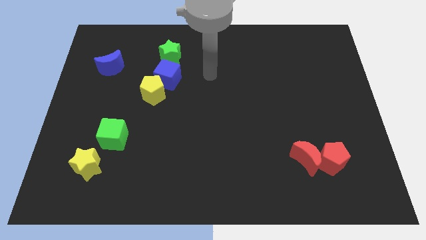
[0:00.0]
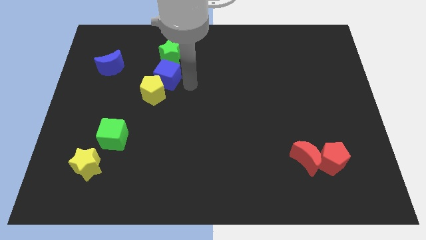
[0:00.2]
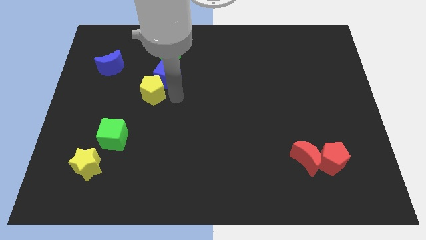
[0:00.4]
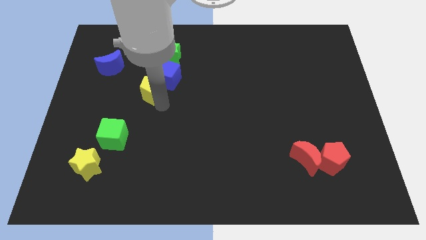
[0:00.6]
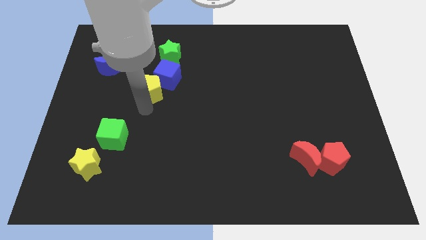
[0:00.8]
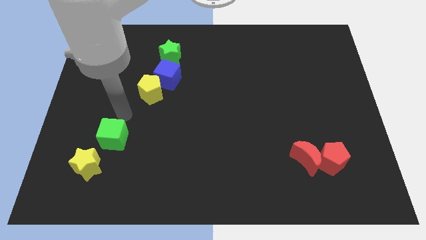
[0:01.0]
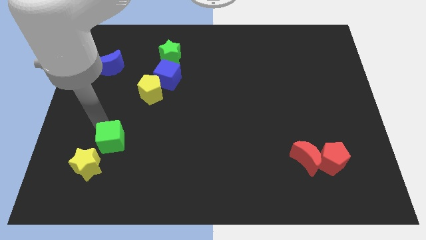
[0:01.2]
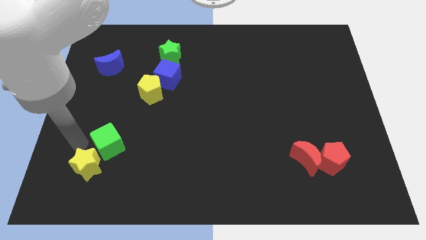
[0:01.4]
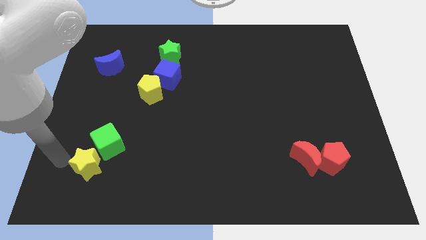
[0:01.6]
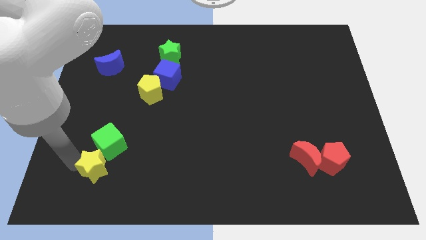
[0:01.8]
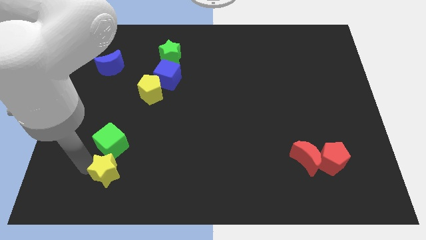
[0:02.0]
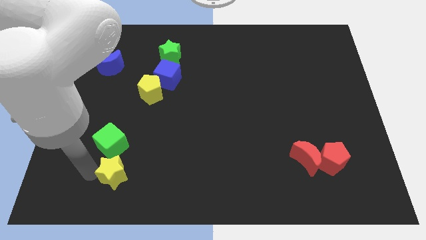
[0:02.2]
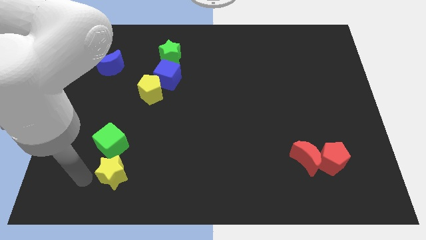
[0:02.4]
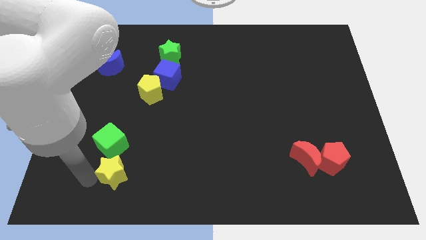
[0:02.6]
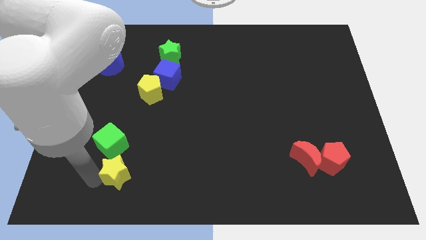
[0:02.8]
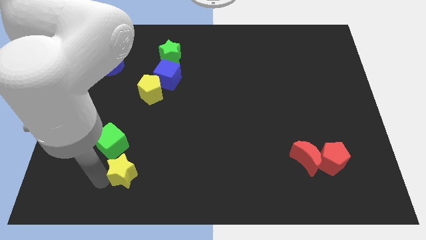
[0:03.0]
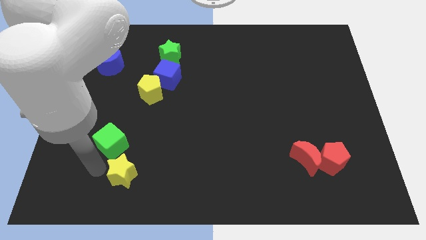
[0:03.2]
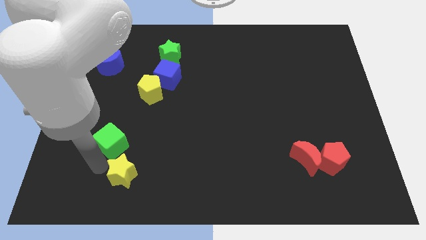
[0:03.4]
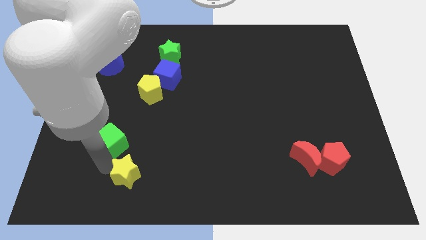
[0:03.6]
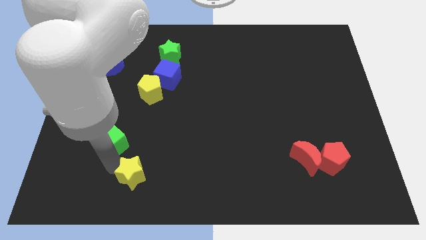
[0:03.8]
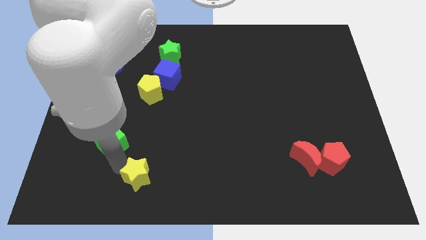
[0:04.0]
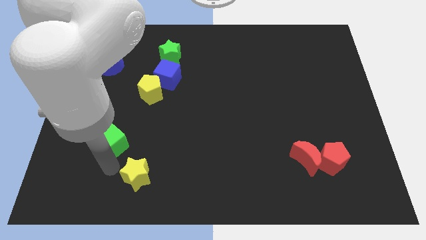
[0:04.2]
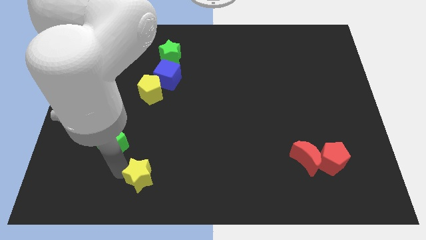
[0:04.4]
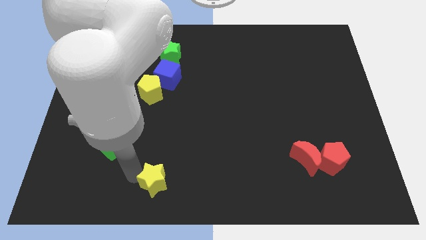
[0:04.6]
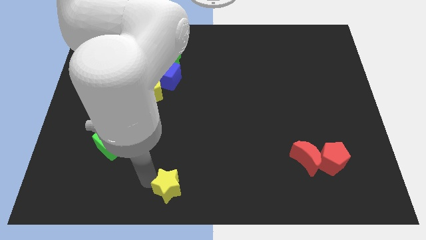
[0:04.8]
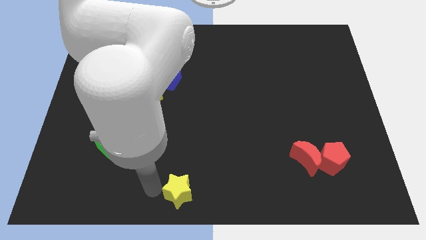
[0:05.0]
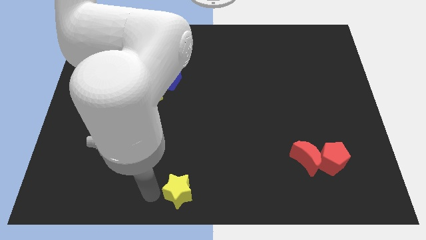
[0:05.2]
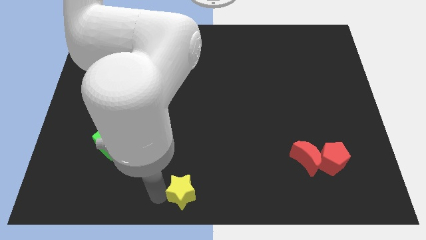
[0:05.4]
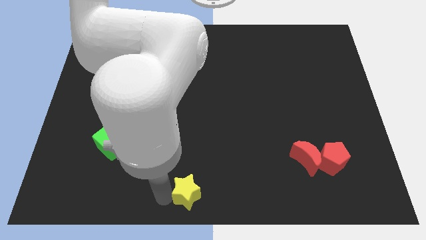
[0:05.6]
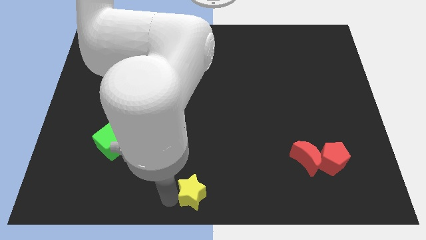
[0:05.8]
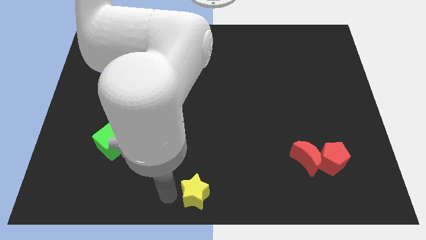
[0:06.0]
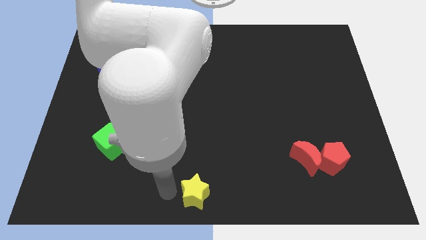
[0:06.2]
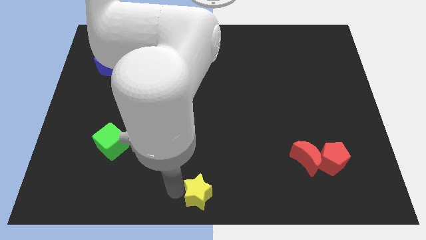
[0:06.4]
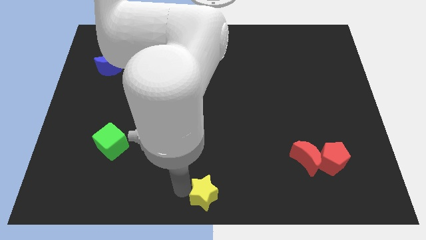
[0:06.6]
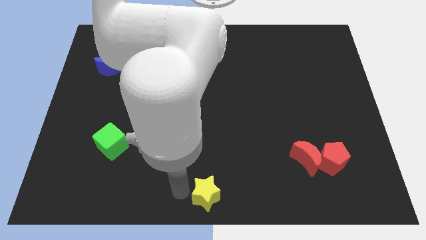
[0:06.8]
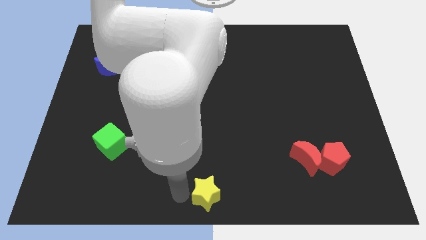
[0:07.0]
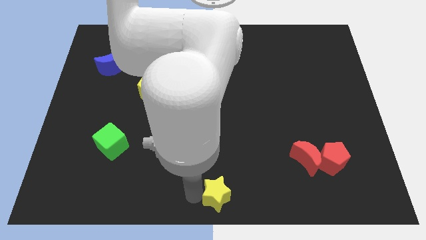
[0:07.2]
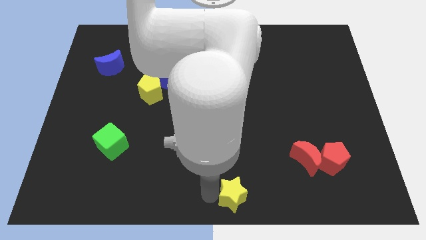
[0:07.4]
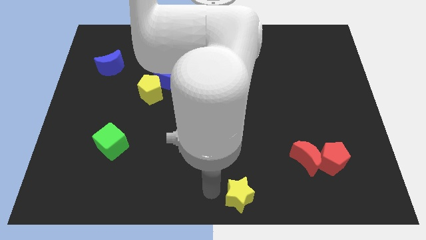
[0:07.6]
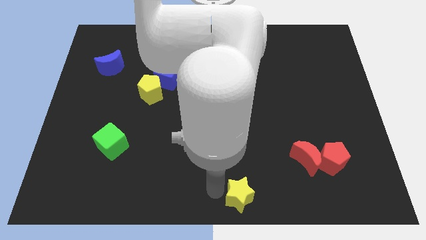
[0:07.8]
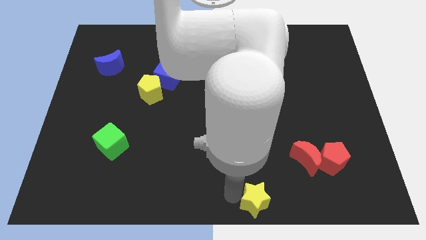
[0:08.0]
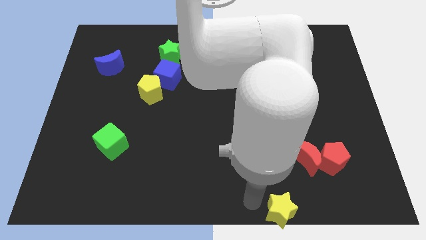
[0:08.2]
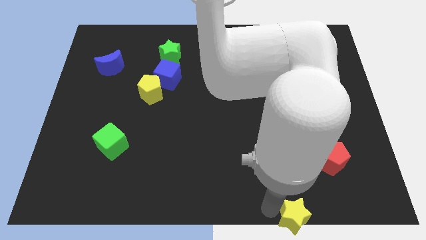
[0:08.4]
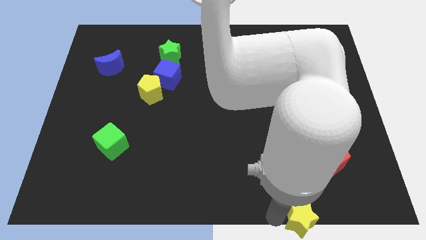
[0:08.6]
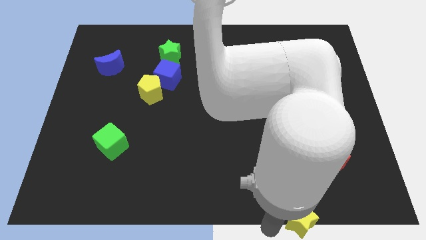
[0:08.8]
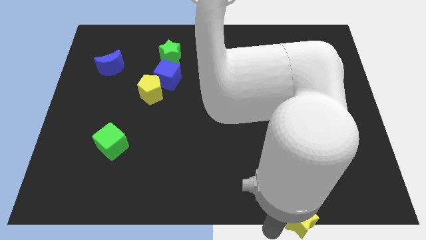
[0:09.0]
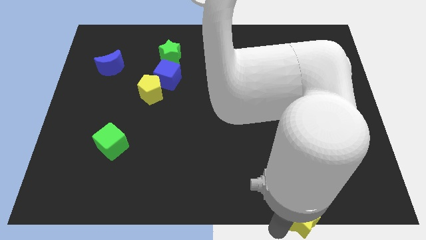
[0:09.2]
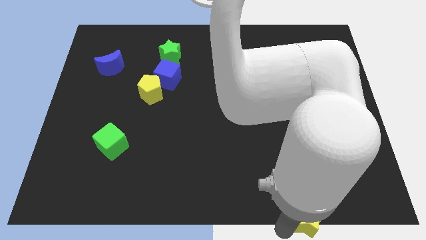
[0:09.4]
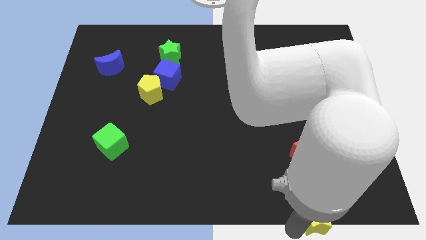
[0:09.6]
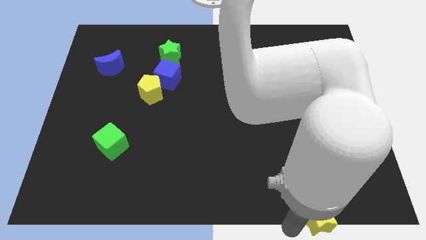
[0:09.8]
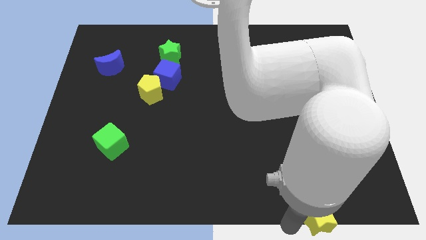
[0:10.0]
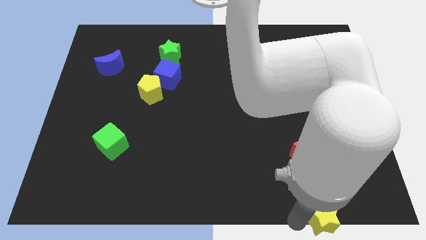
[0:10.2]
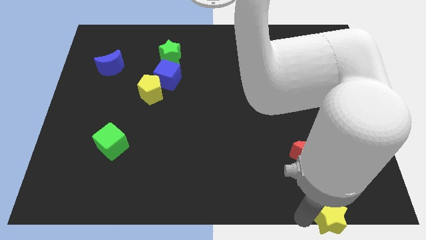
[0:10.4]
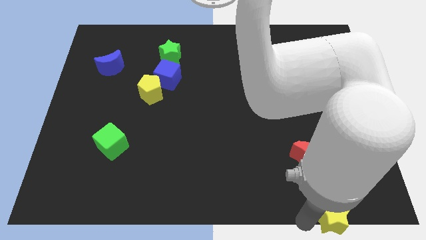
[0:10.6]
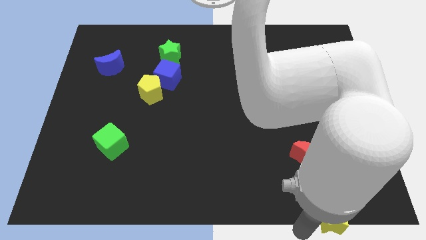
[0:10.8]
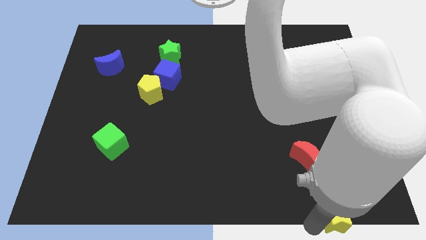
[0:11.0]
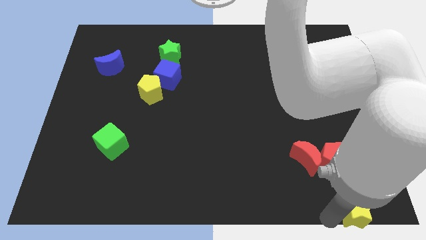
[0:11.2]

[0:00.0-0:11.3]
put the yellow star to the bottom right of the board

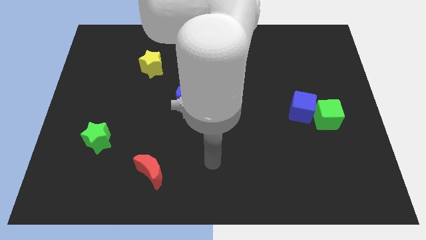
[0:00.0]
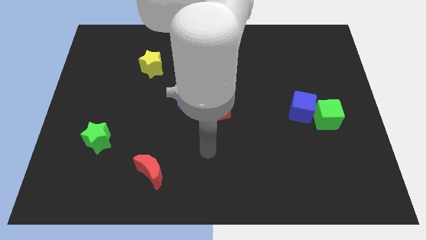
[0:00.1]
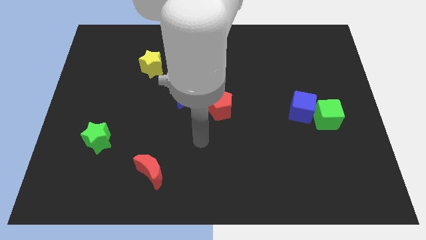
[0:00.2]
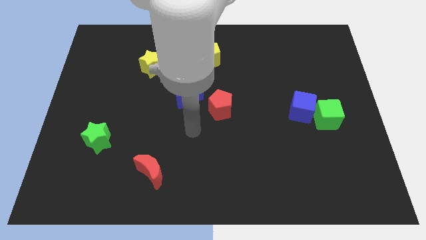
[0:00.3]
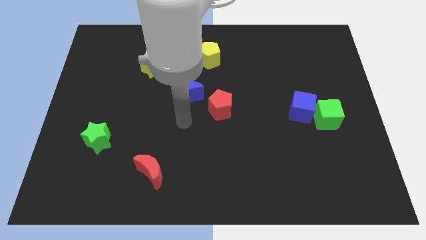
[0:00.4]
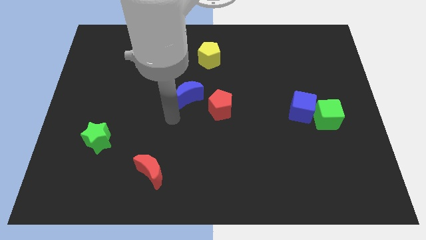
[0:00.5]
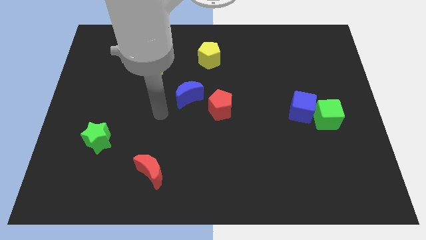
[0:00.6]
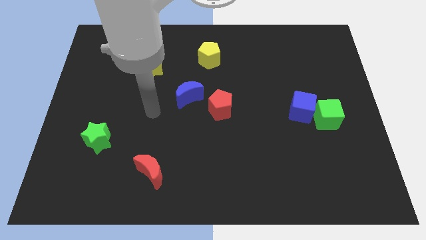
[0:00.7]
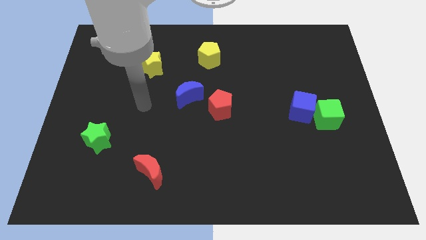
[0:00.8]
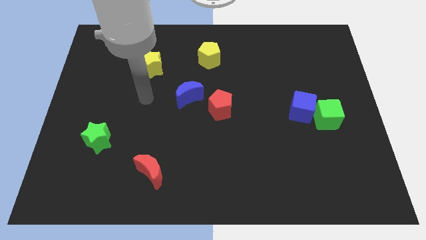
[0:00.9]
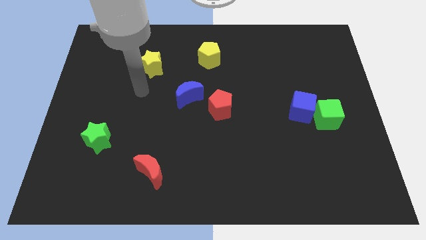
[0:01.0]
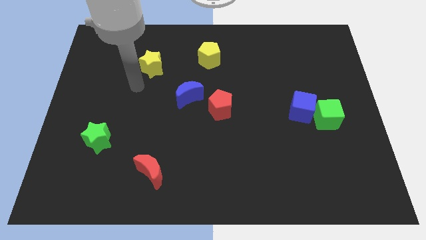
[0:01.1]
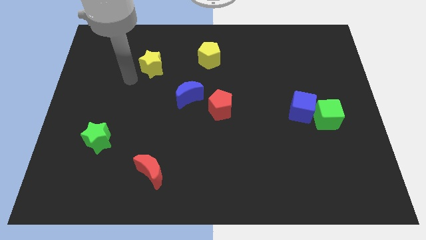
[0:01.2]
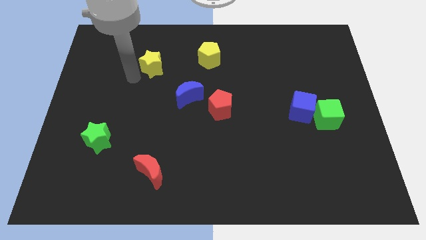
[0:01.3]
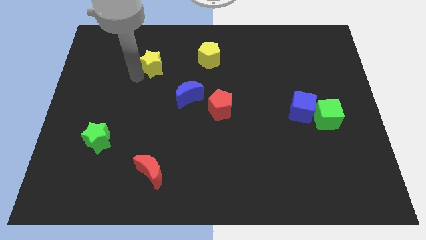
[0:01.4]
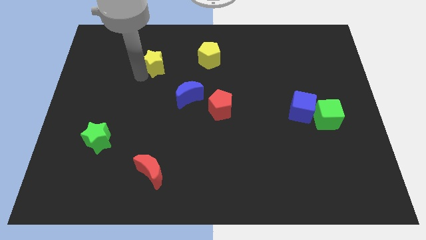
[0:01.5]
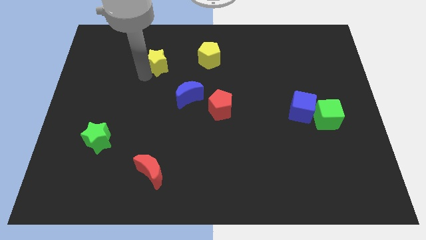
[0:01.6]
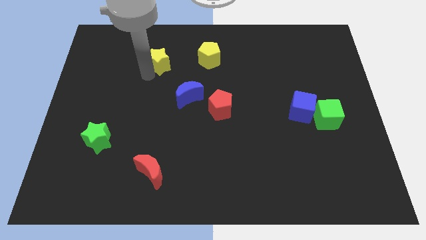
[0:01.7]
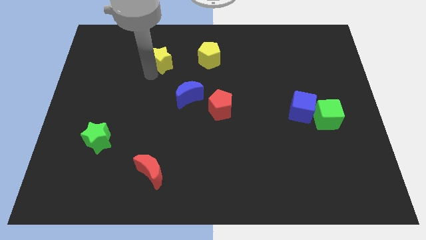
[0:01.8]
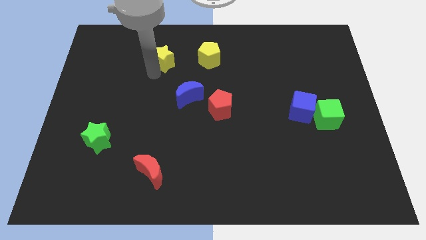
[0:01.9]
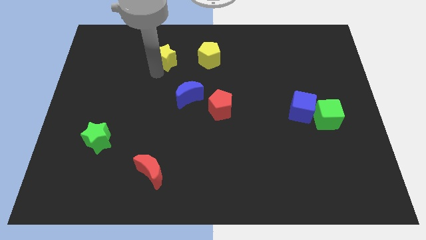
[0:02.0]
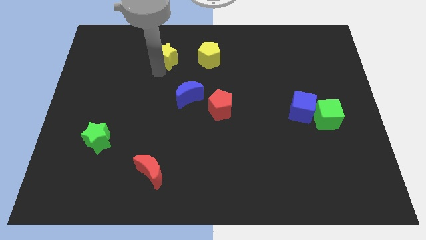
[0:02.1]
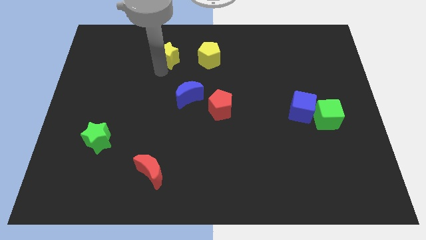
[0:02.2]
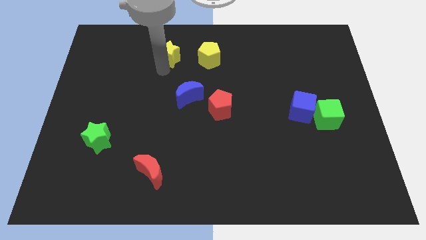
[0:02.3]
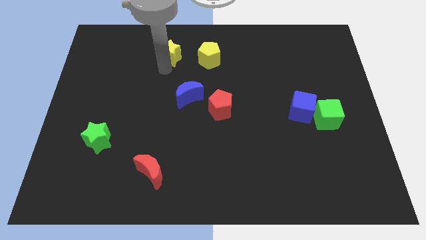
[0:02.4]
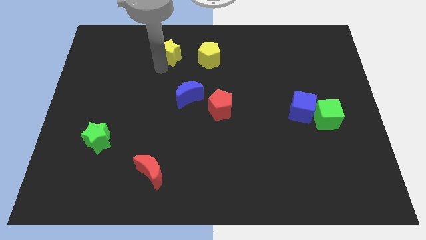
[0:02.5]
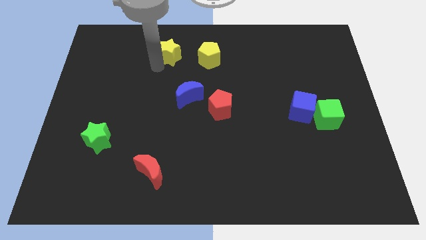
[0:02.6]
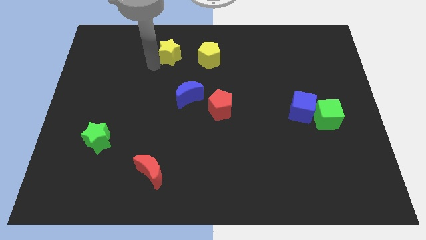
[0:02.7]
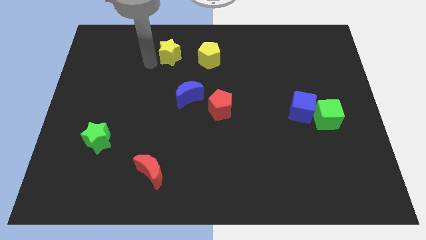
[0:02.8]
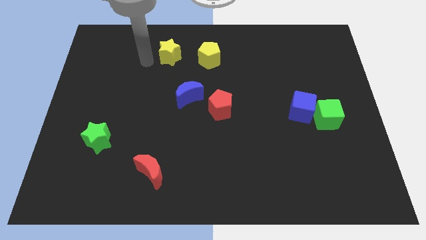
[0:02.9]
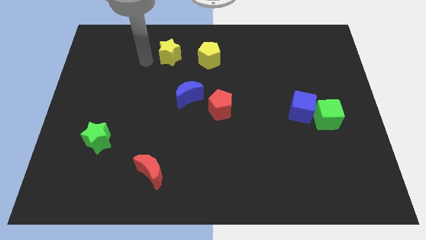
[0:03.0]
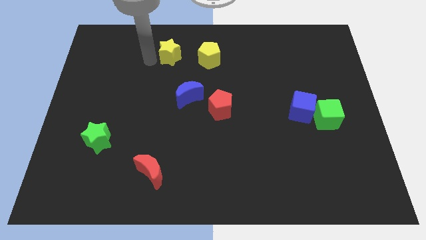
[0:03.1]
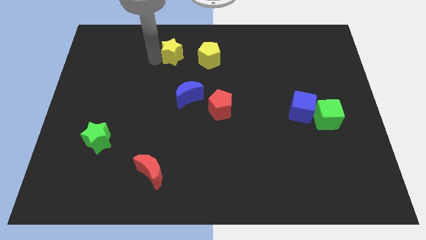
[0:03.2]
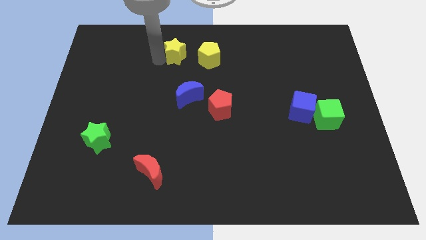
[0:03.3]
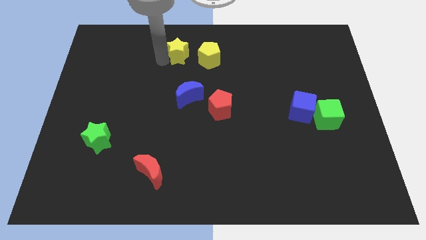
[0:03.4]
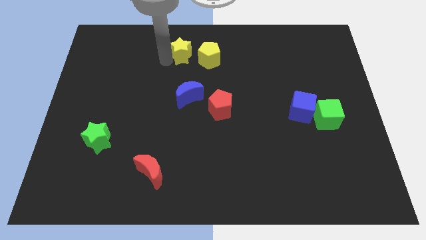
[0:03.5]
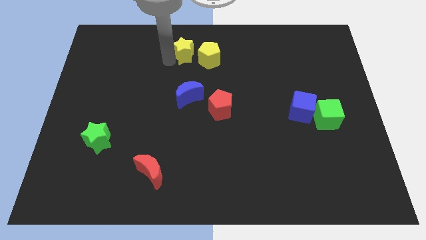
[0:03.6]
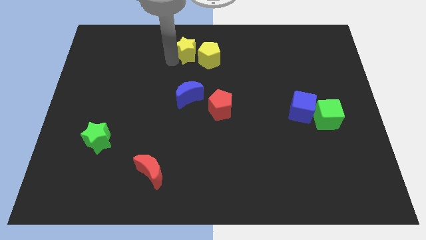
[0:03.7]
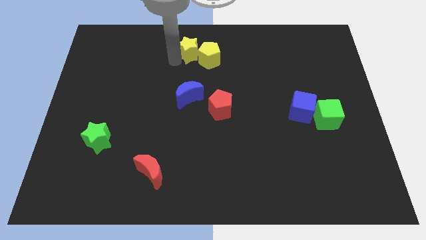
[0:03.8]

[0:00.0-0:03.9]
push the yellow star to the top
